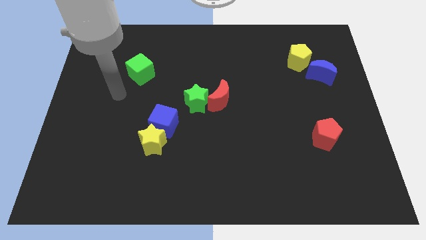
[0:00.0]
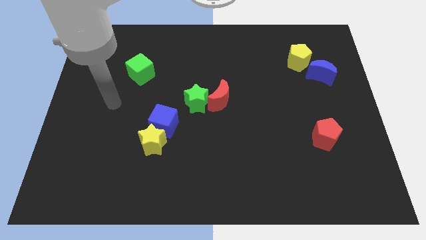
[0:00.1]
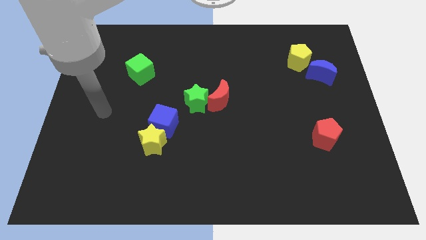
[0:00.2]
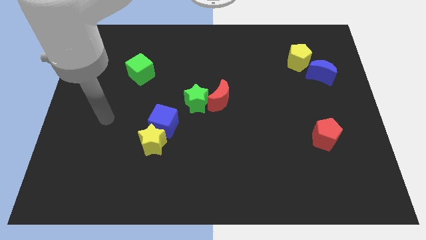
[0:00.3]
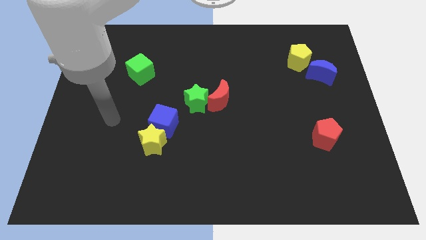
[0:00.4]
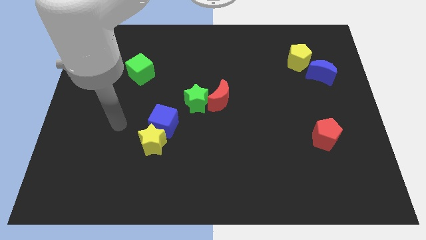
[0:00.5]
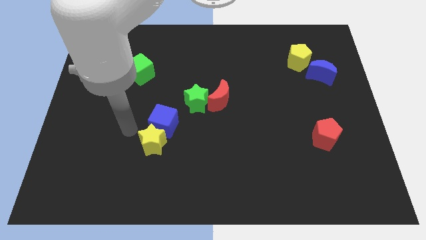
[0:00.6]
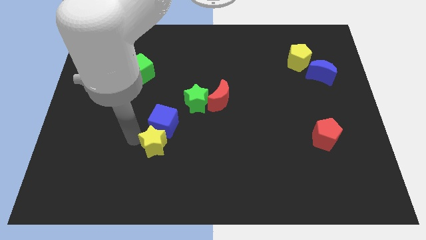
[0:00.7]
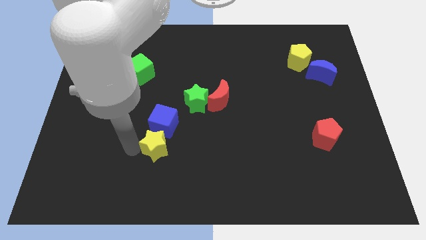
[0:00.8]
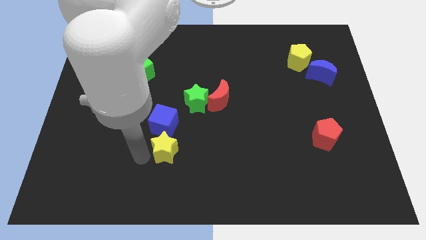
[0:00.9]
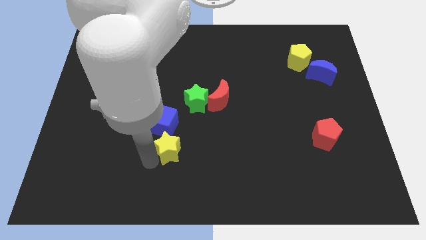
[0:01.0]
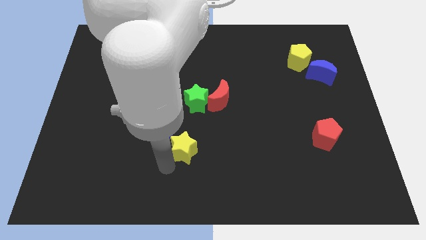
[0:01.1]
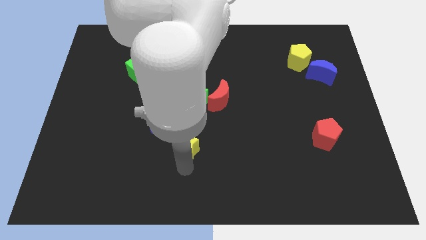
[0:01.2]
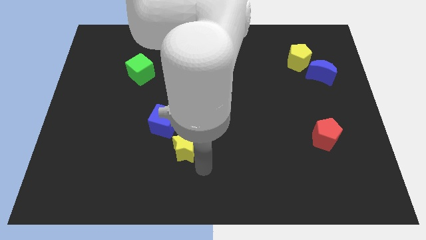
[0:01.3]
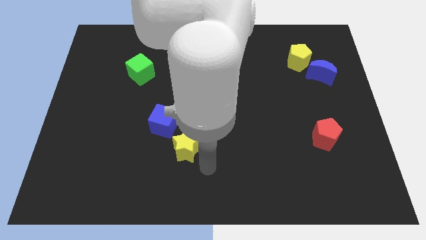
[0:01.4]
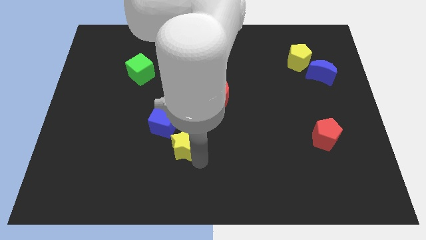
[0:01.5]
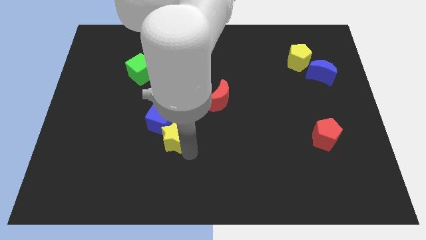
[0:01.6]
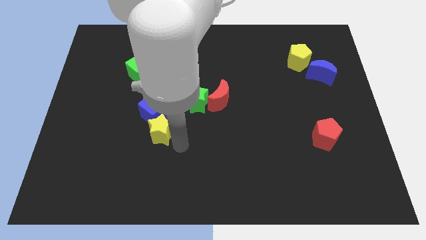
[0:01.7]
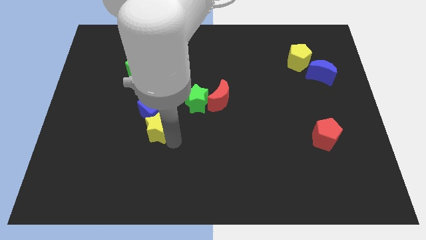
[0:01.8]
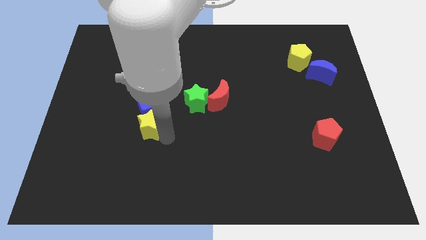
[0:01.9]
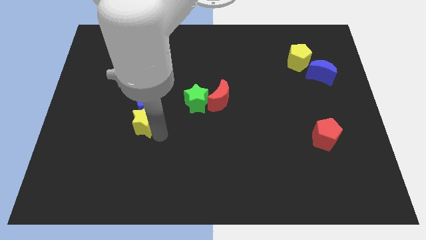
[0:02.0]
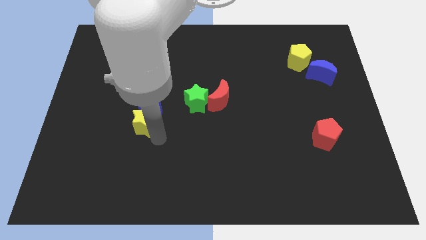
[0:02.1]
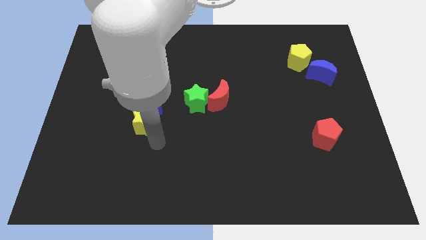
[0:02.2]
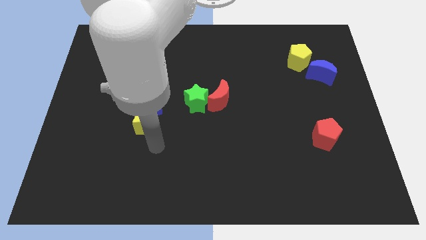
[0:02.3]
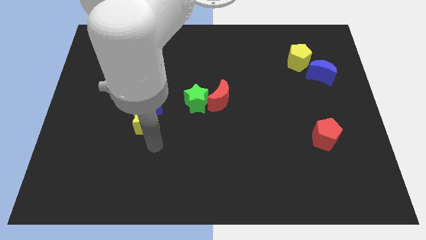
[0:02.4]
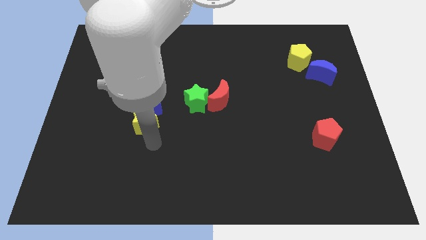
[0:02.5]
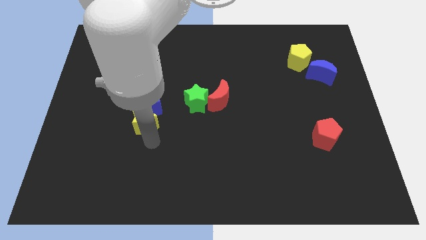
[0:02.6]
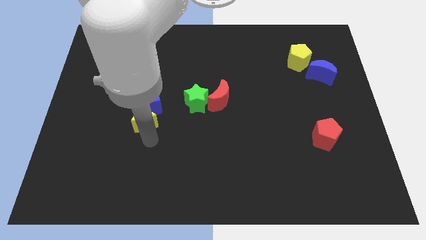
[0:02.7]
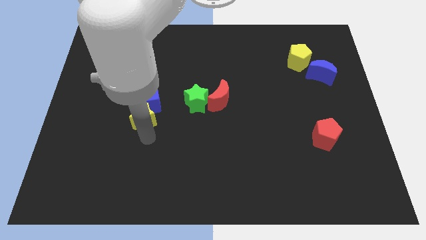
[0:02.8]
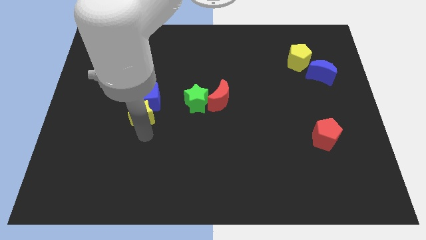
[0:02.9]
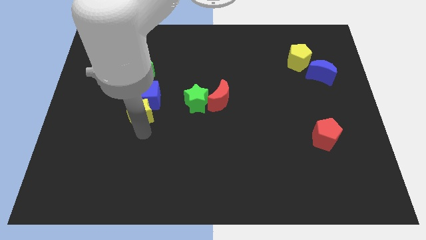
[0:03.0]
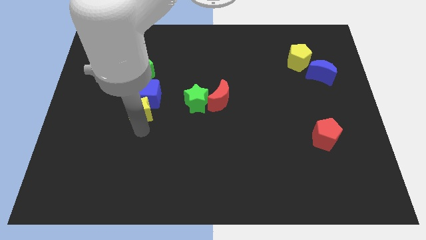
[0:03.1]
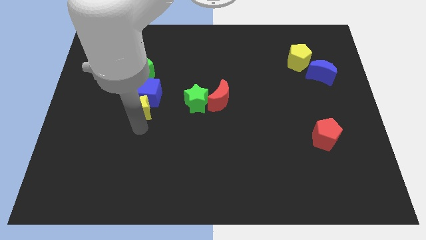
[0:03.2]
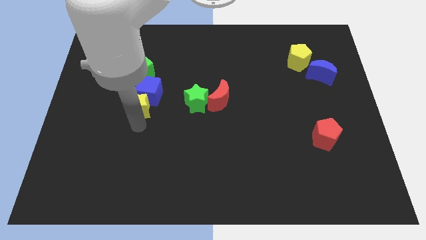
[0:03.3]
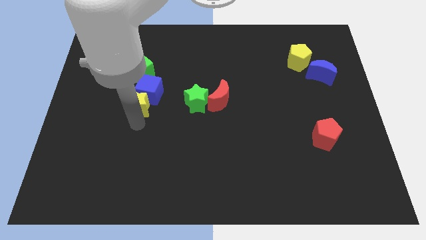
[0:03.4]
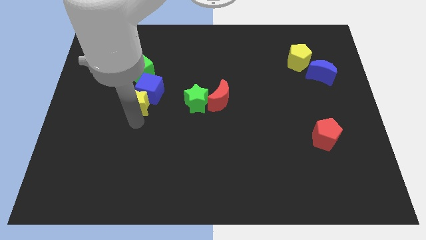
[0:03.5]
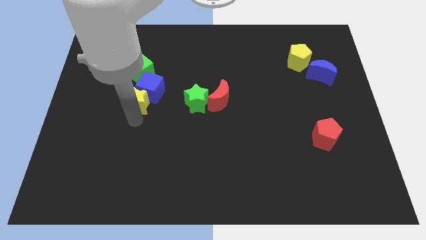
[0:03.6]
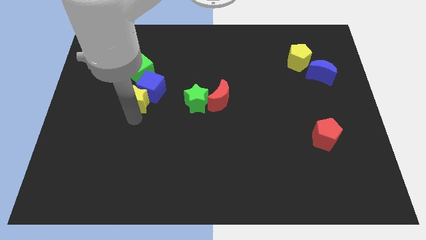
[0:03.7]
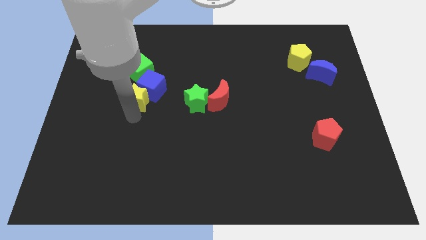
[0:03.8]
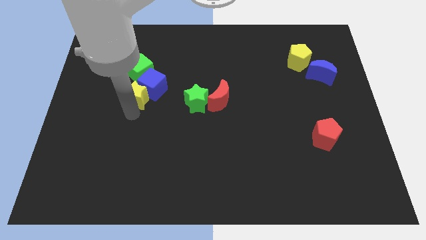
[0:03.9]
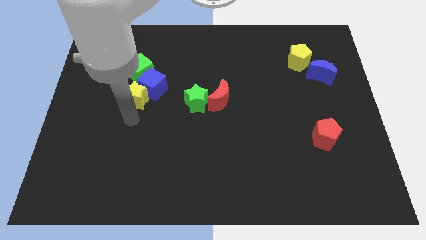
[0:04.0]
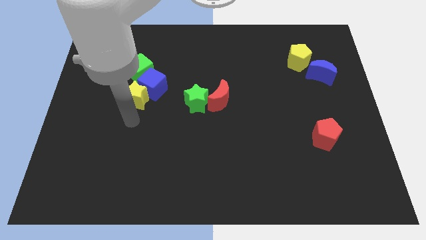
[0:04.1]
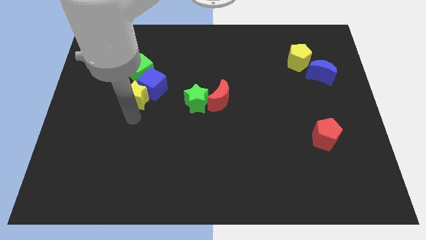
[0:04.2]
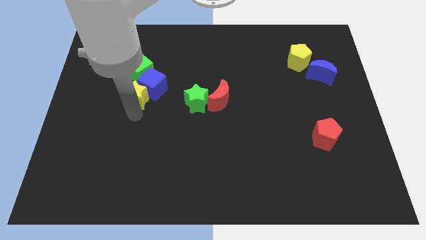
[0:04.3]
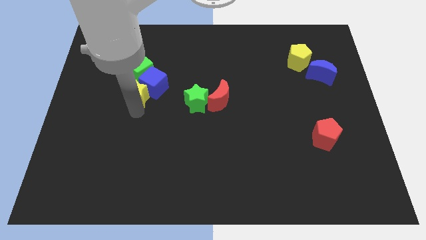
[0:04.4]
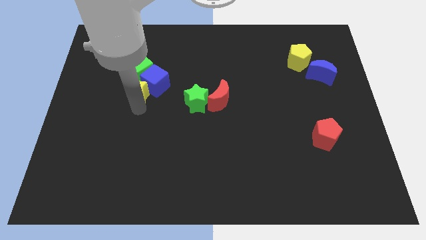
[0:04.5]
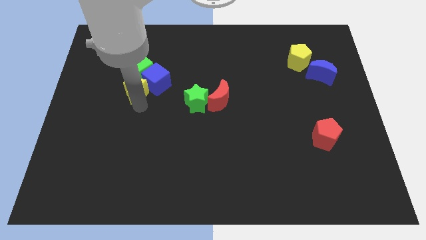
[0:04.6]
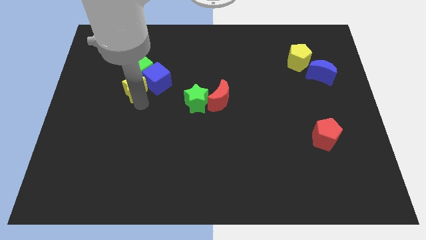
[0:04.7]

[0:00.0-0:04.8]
push the yellow star towards the green cube

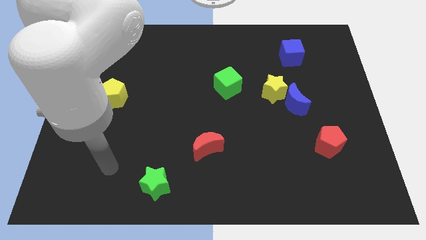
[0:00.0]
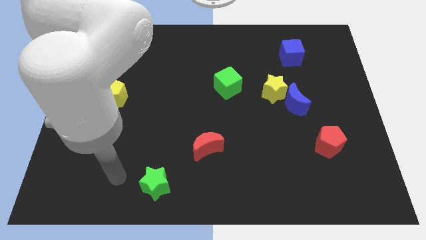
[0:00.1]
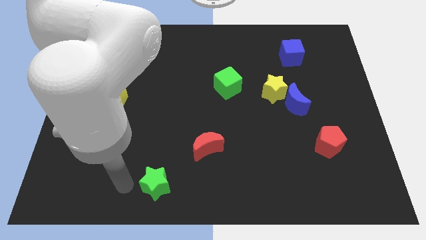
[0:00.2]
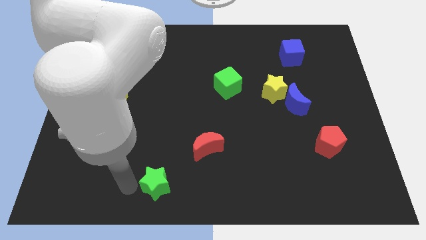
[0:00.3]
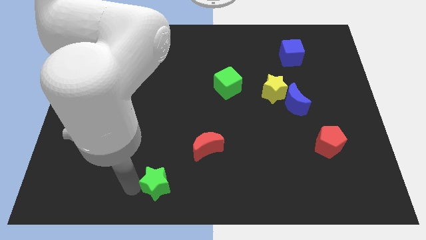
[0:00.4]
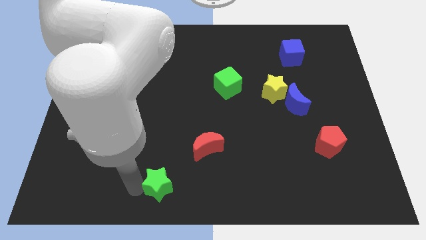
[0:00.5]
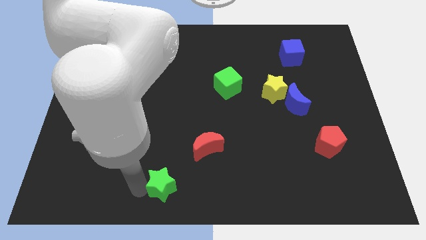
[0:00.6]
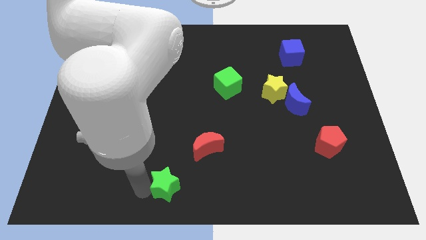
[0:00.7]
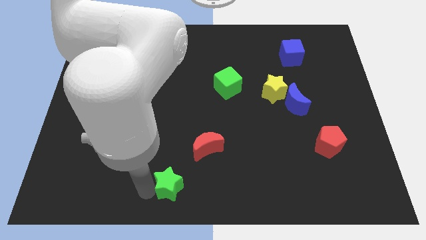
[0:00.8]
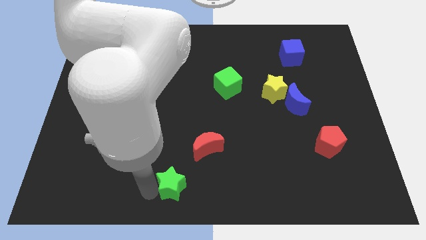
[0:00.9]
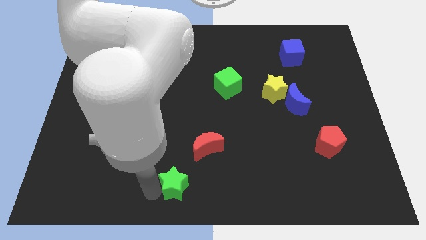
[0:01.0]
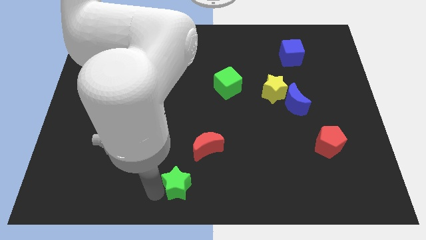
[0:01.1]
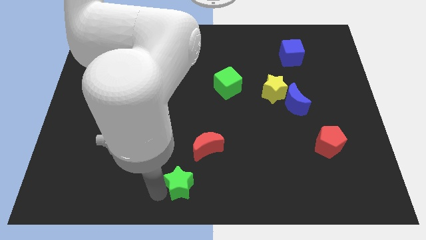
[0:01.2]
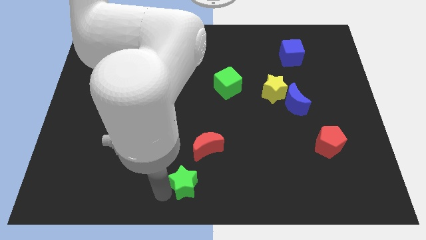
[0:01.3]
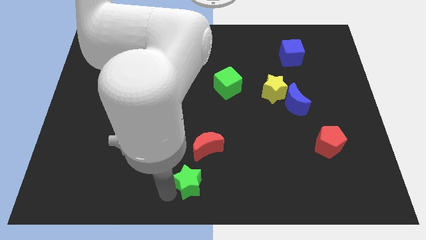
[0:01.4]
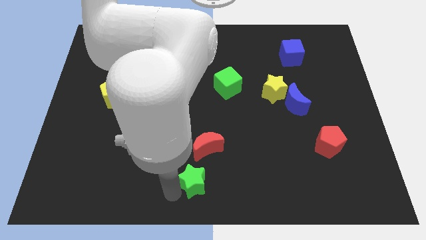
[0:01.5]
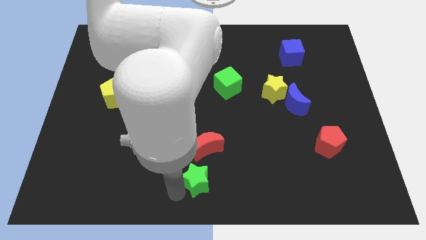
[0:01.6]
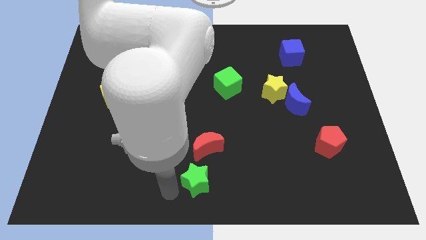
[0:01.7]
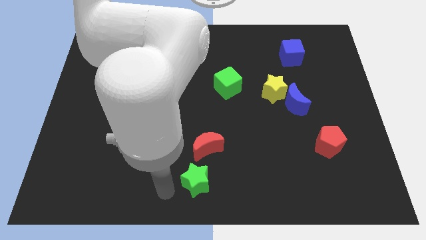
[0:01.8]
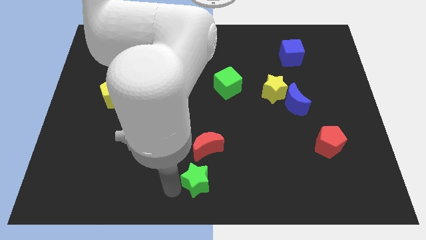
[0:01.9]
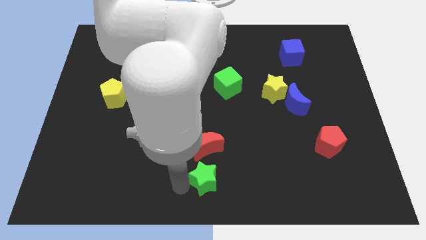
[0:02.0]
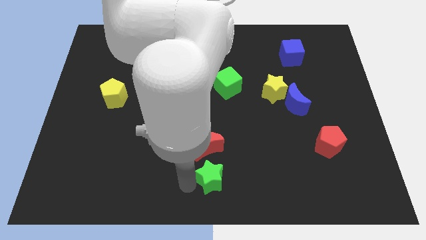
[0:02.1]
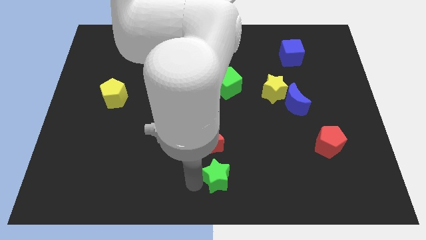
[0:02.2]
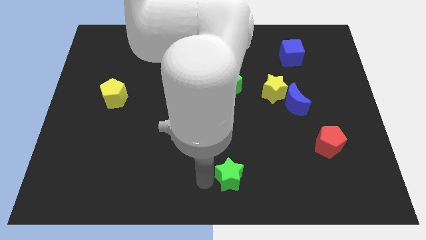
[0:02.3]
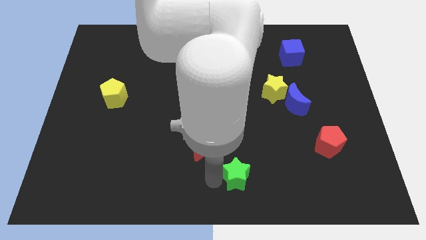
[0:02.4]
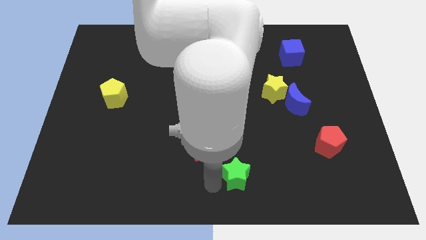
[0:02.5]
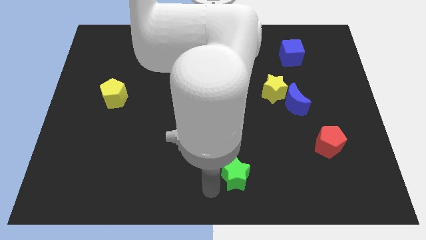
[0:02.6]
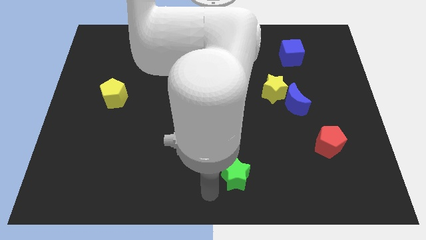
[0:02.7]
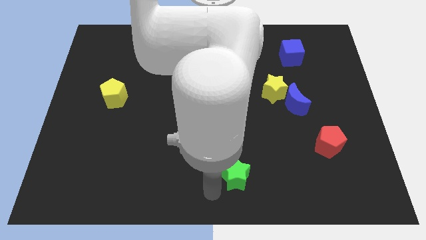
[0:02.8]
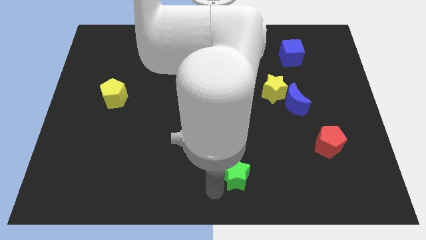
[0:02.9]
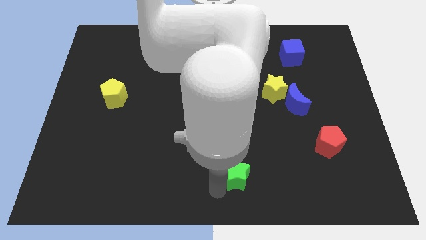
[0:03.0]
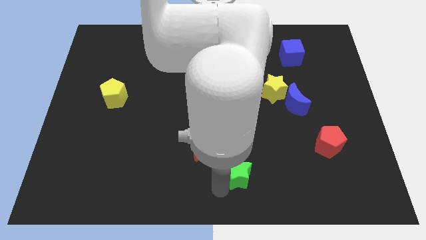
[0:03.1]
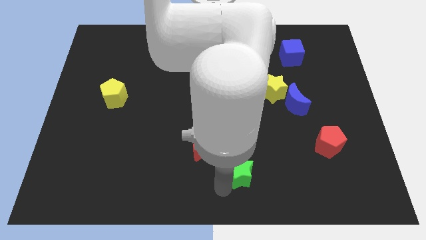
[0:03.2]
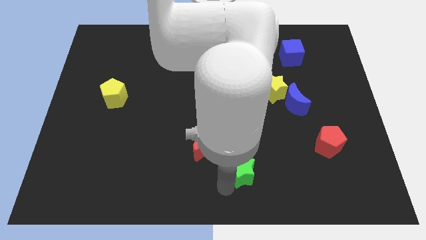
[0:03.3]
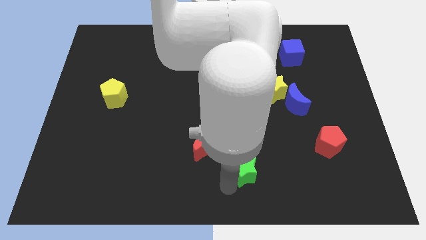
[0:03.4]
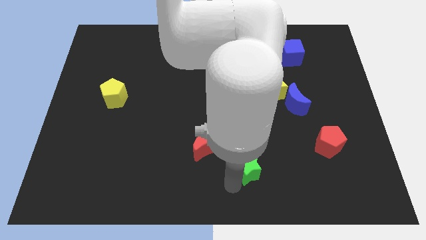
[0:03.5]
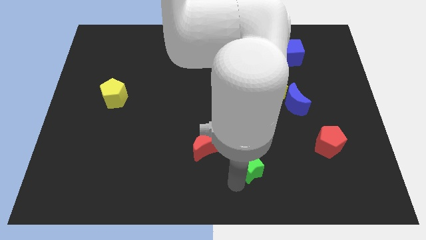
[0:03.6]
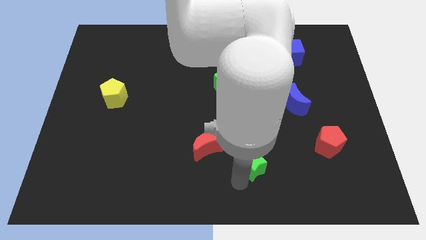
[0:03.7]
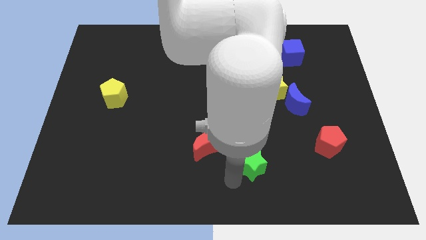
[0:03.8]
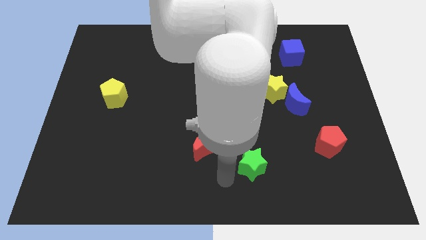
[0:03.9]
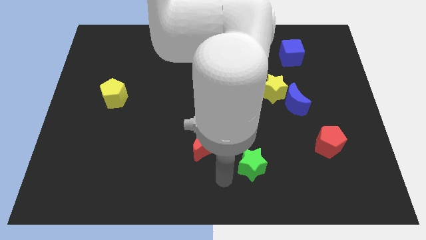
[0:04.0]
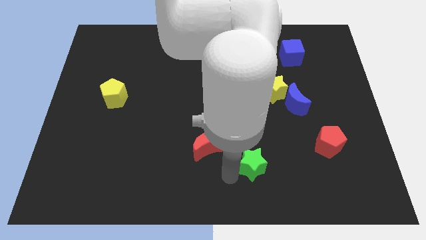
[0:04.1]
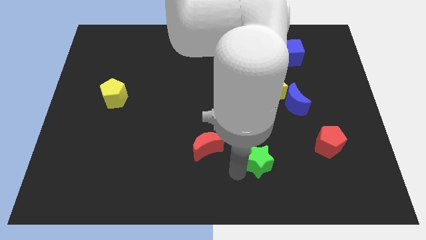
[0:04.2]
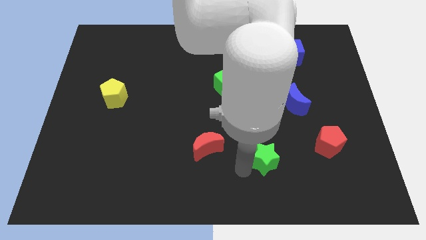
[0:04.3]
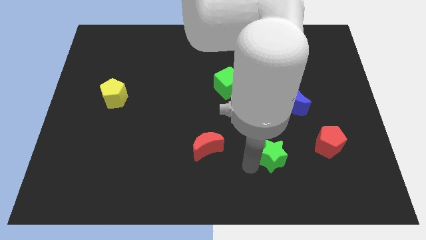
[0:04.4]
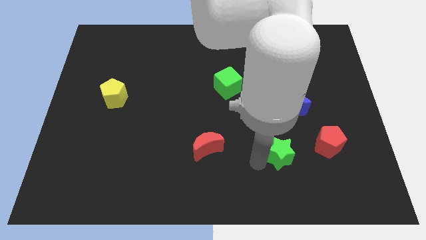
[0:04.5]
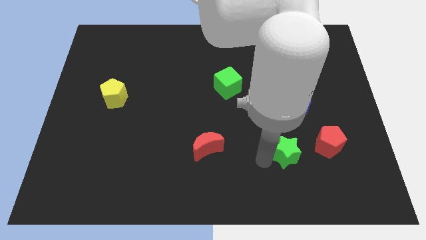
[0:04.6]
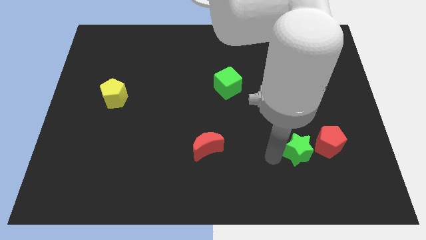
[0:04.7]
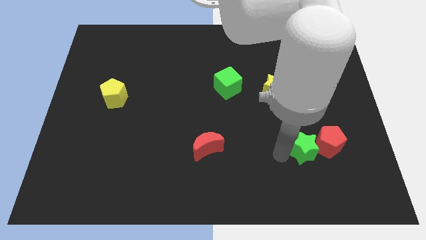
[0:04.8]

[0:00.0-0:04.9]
move the green star towards the red pentagon
